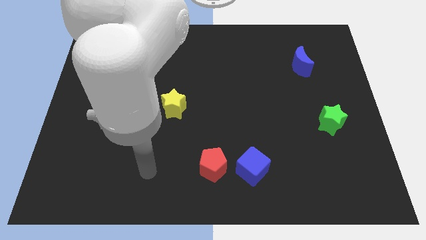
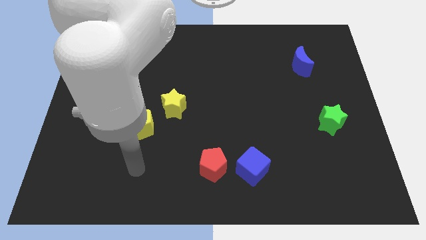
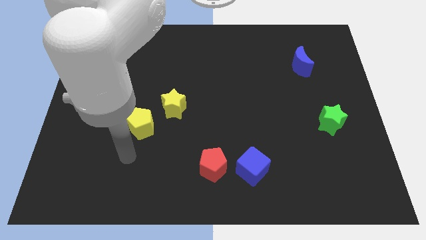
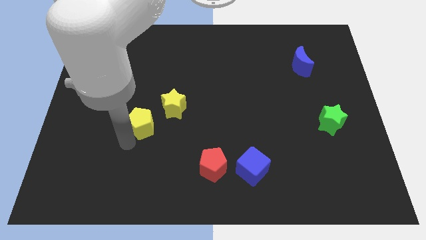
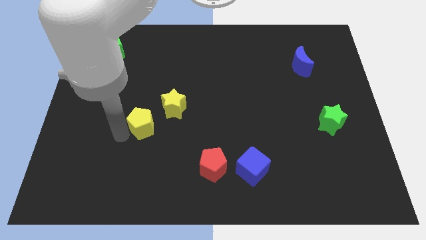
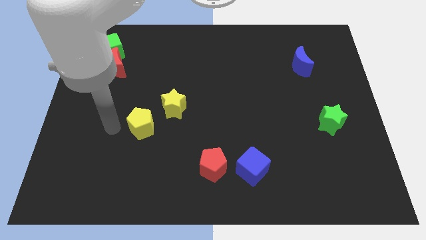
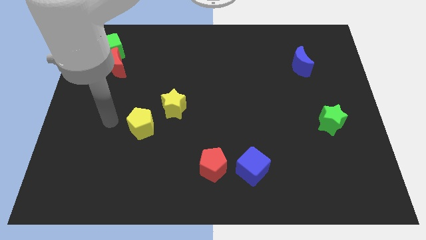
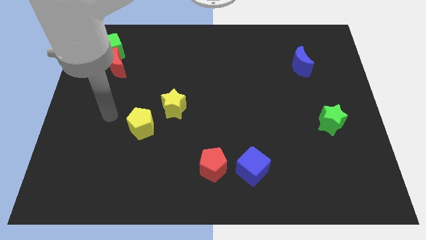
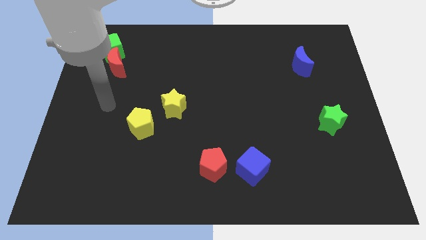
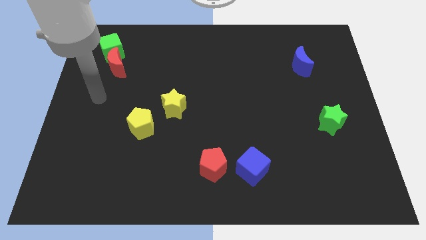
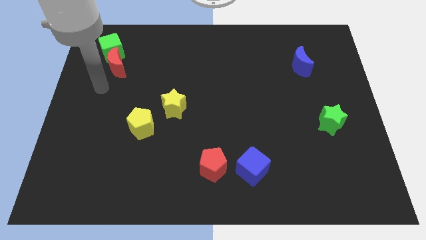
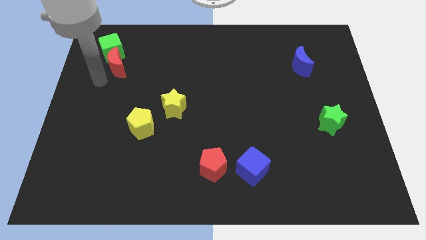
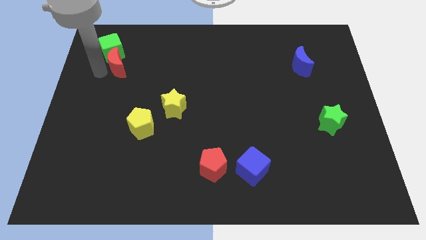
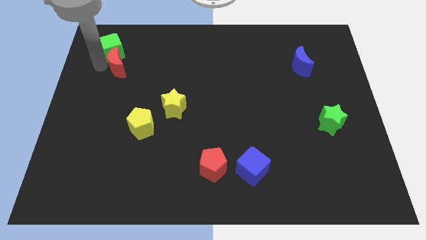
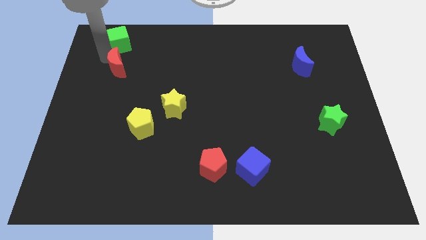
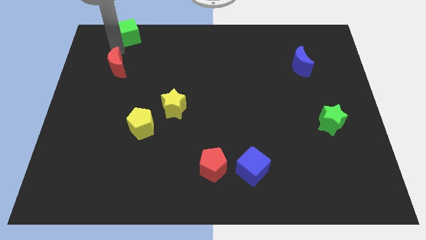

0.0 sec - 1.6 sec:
pull the red moon apart from the green cube

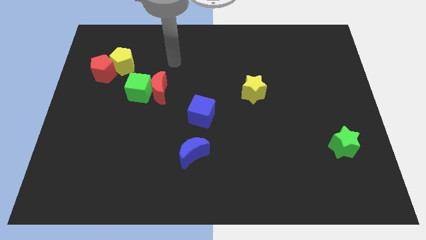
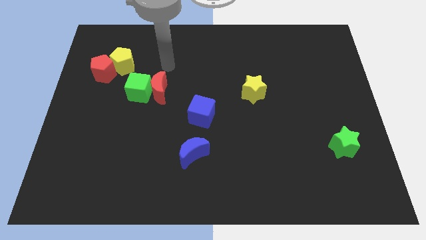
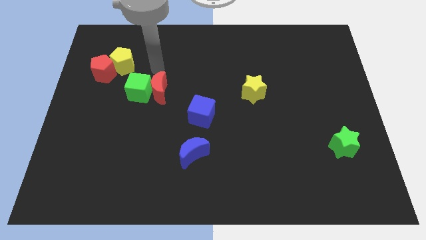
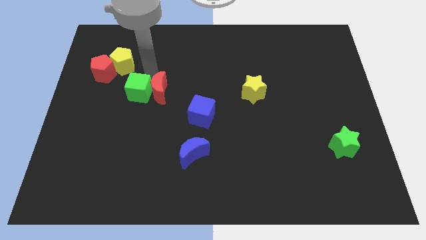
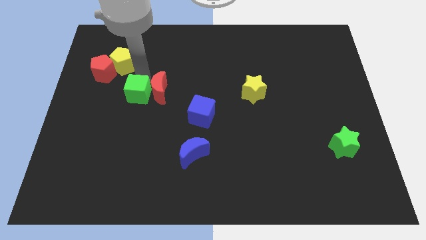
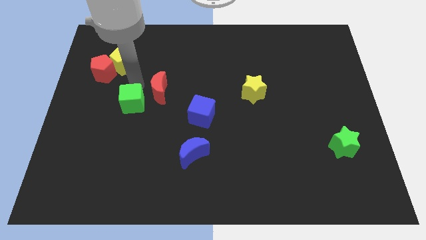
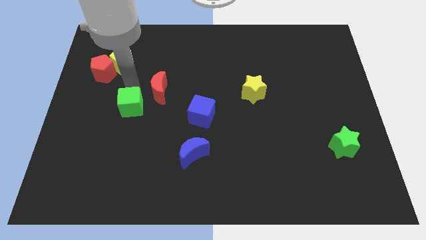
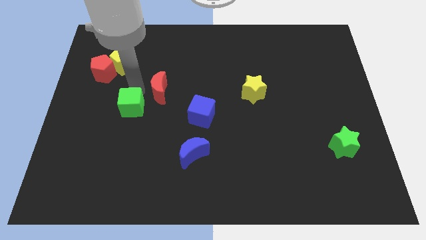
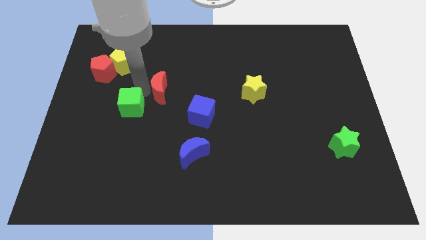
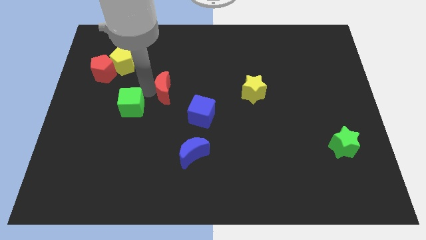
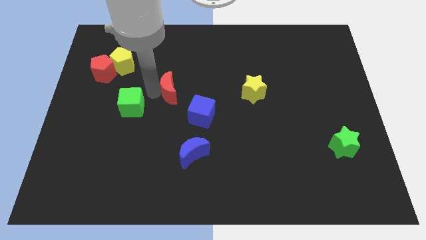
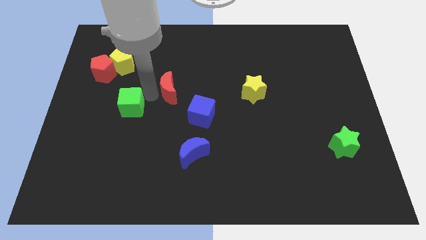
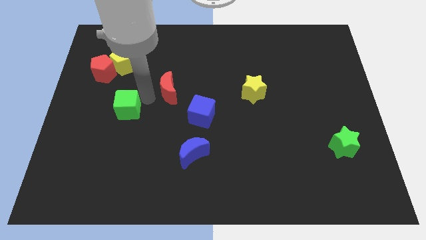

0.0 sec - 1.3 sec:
move the red moon away from the green cube

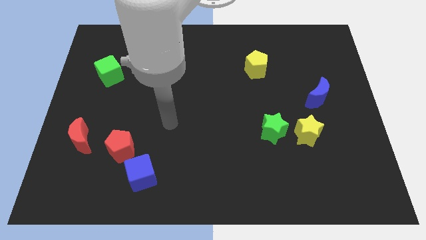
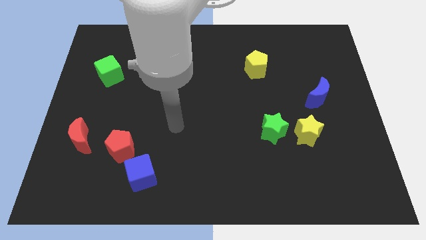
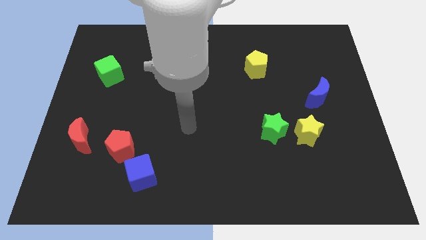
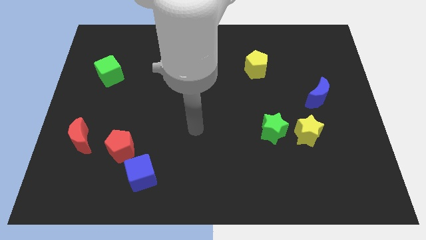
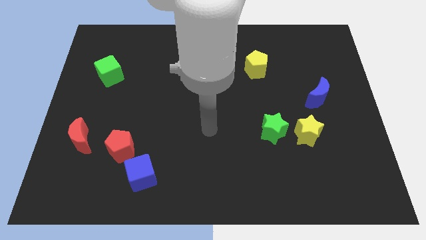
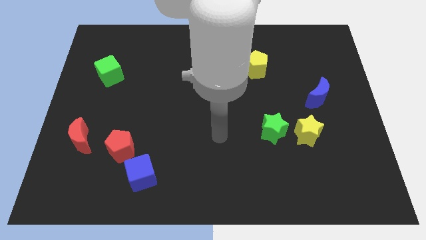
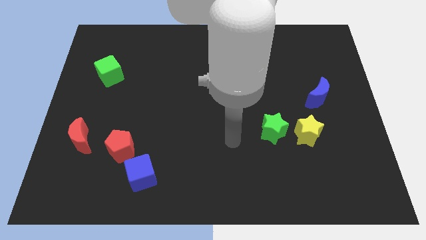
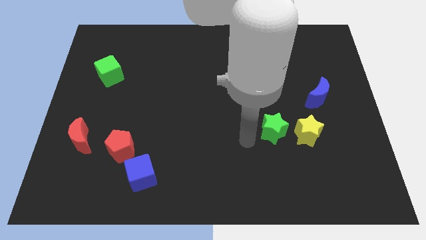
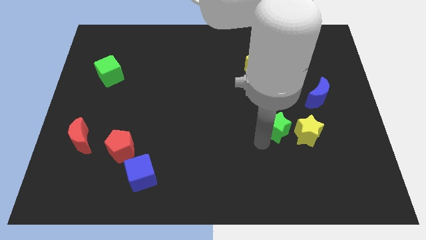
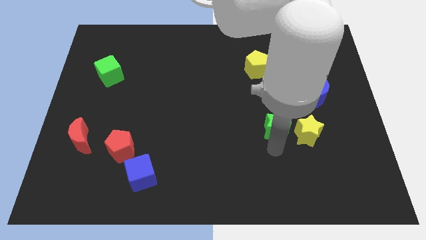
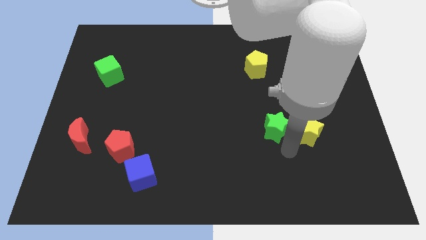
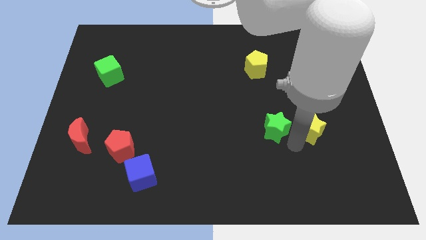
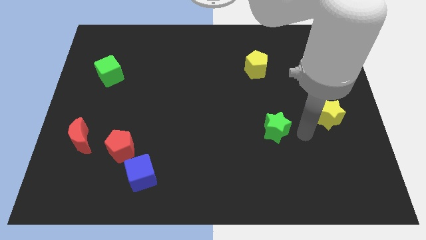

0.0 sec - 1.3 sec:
pull the green star apart from the yellow star

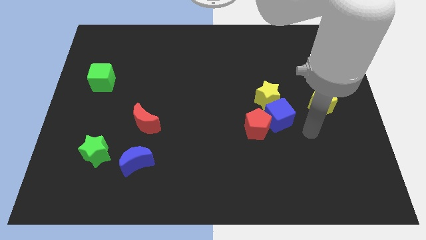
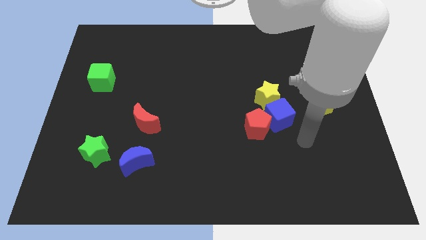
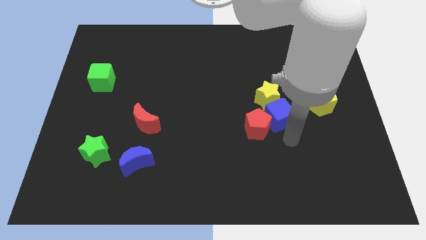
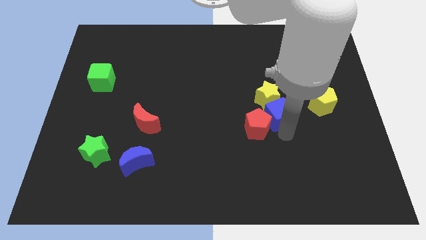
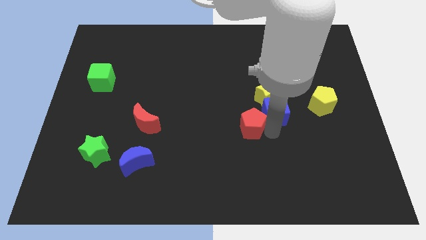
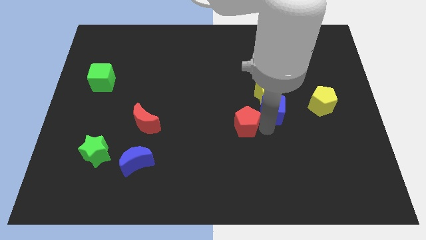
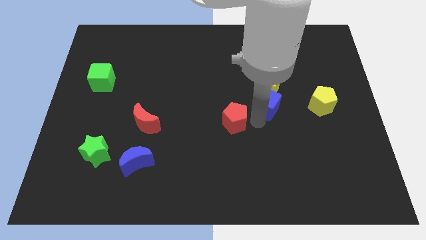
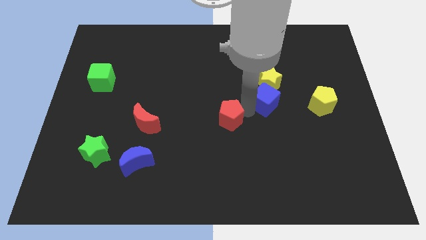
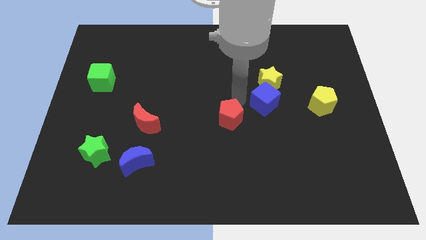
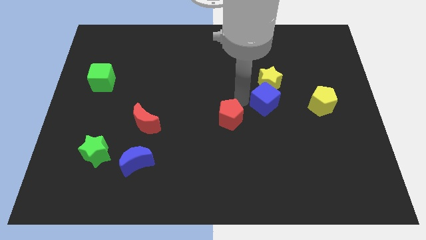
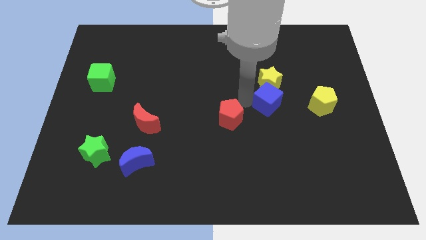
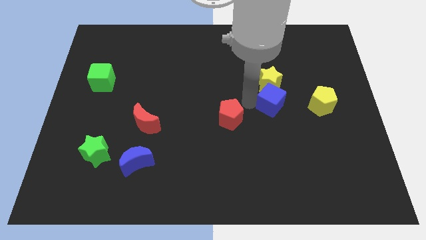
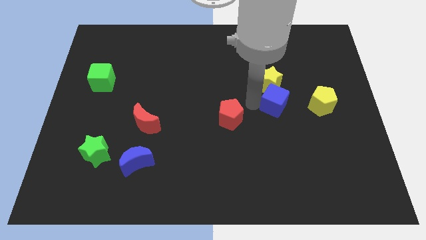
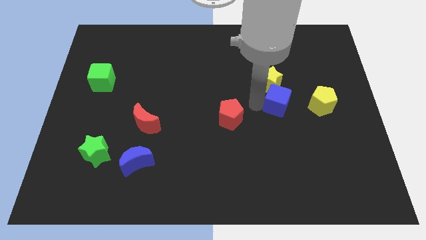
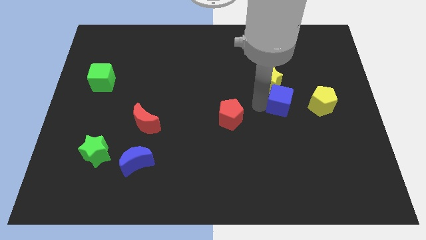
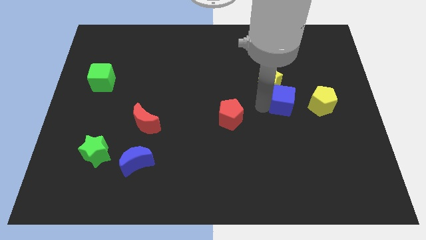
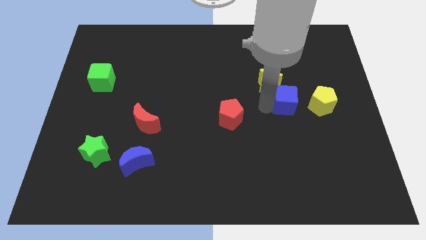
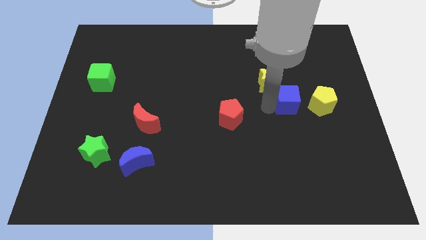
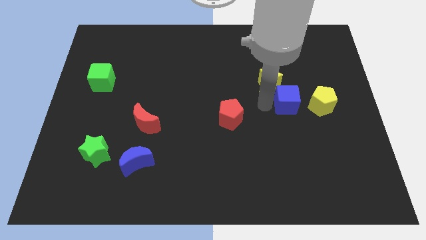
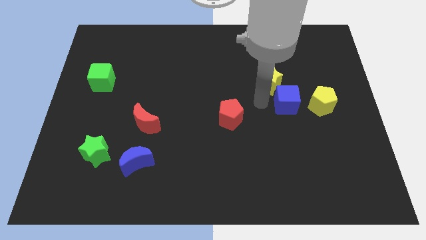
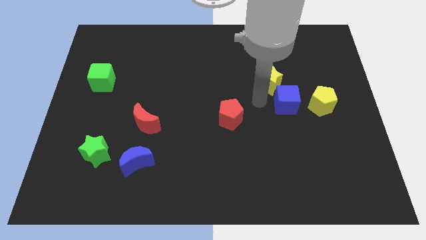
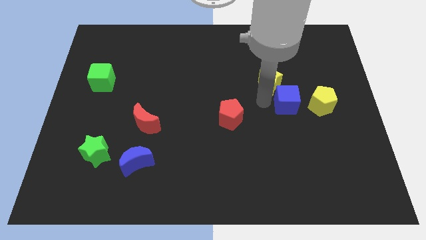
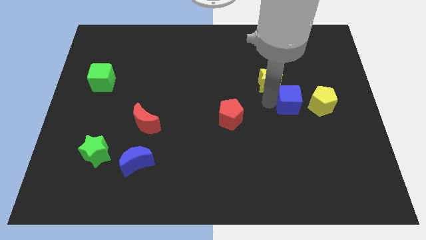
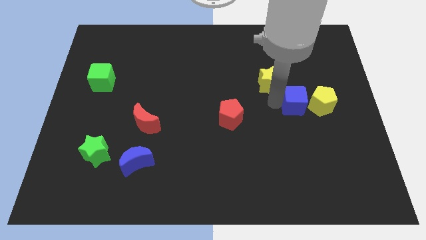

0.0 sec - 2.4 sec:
pull the blue cube apart from the red pentagon and yellow star

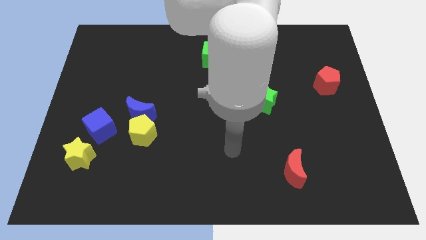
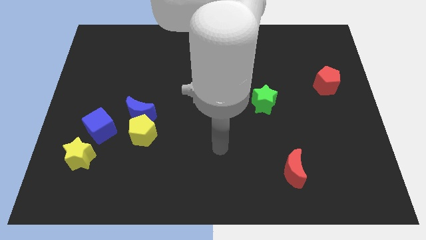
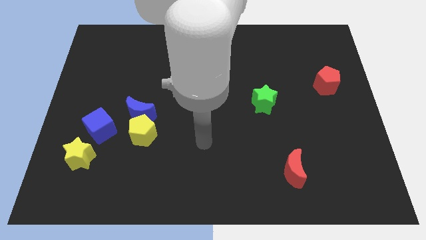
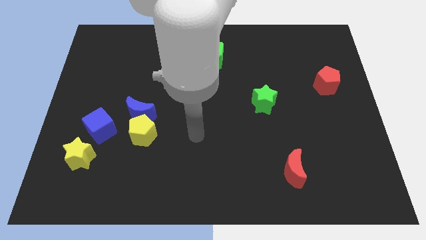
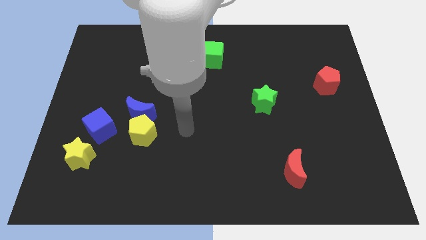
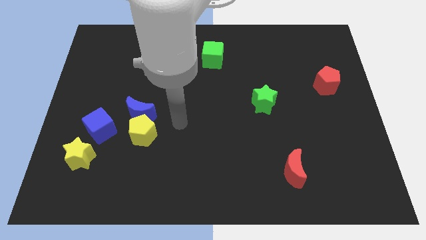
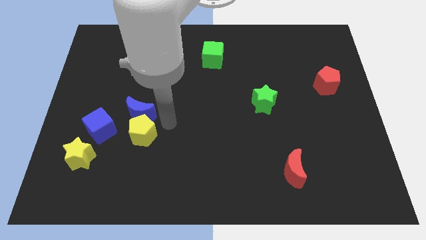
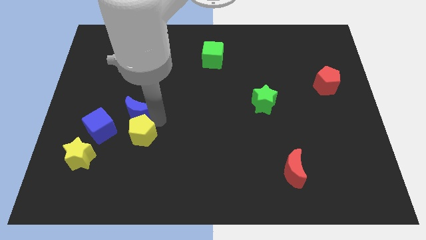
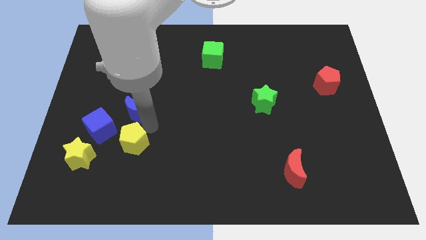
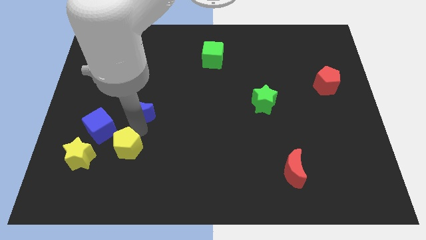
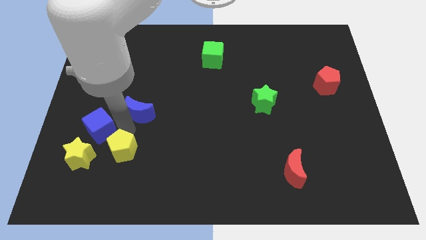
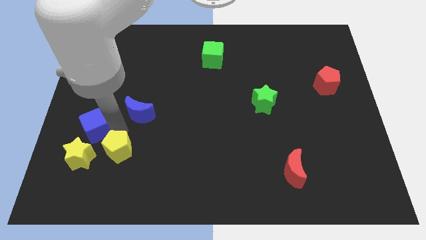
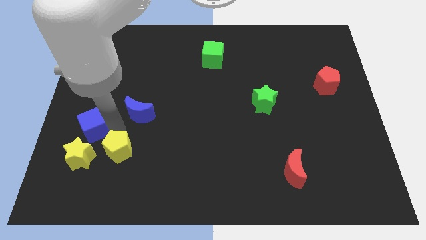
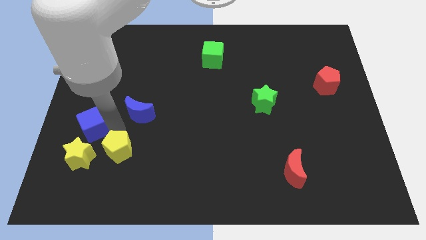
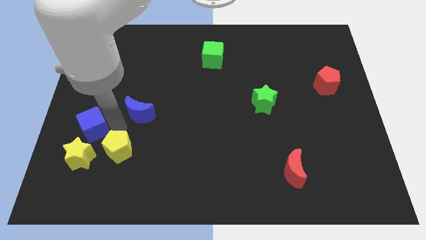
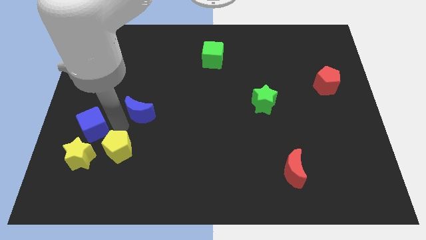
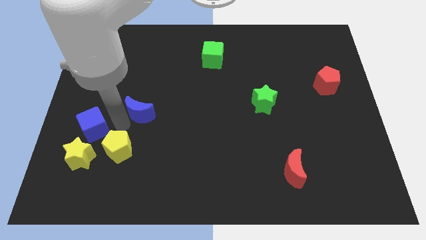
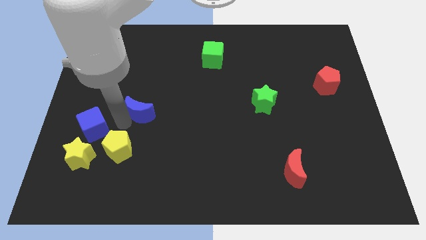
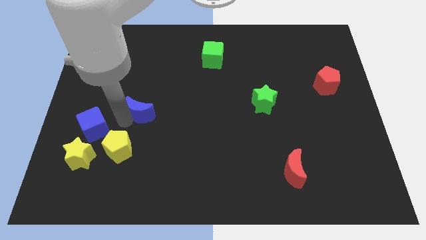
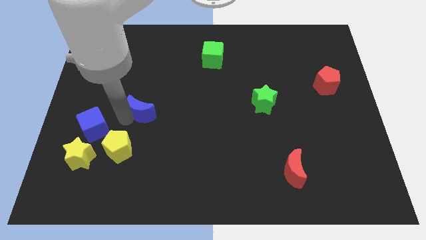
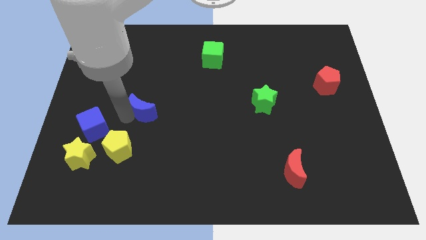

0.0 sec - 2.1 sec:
move the blue moon away from the yellow pentagon and blue cube

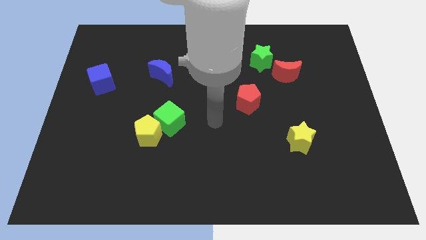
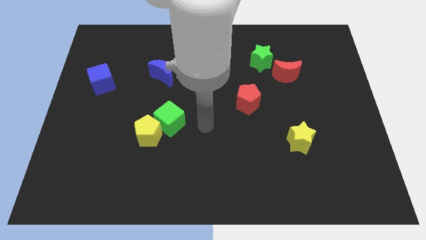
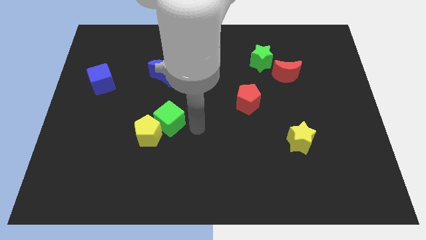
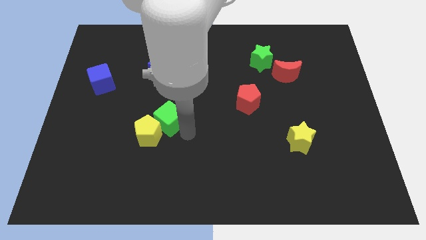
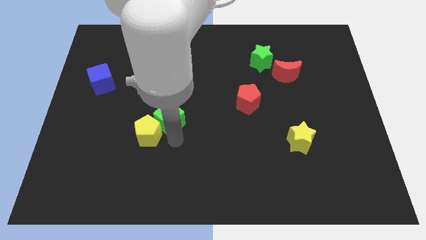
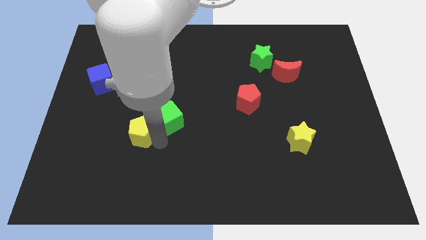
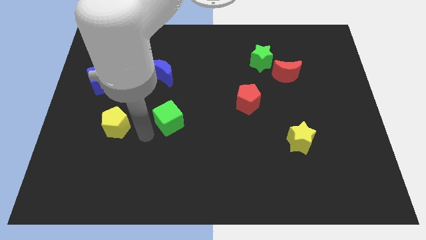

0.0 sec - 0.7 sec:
pull the green cube apart from the yellow pentagon

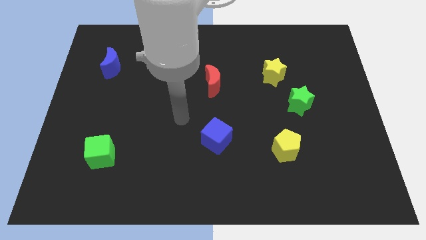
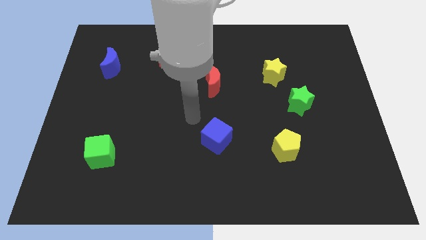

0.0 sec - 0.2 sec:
move the green star away from the yellow star
